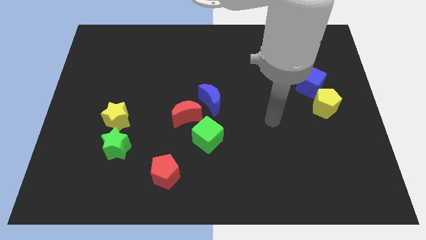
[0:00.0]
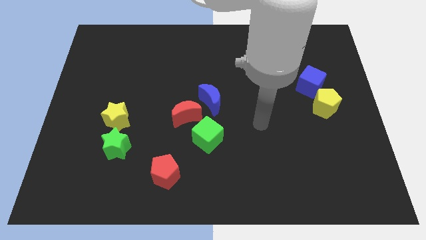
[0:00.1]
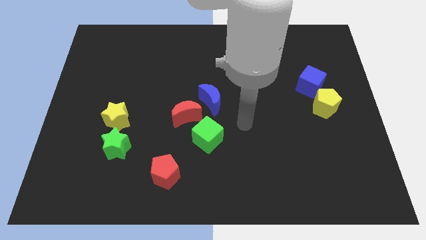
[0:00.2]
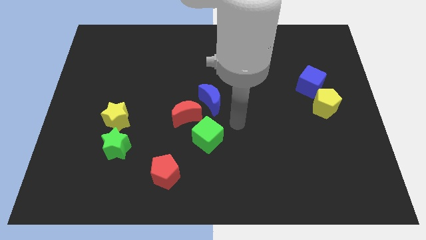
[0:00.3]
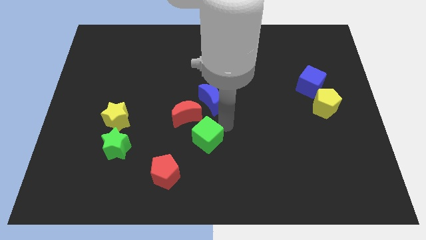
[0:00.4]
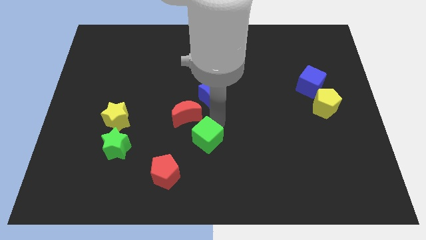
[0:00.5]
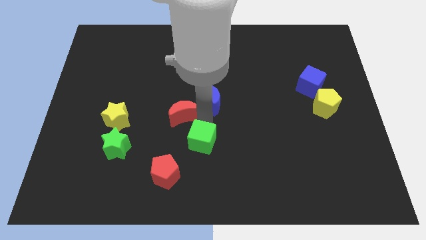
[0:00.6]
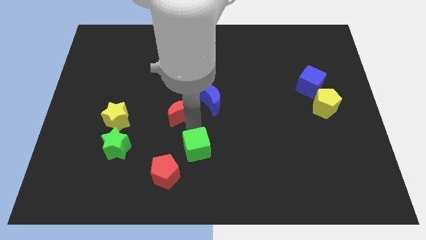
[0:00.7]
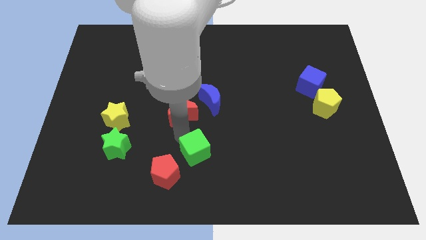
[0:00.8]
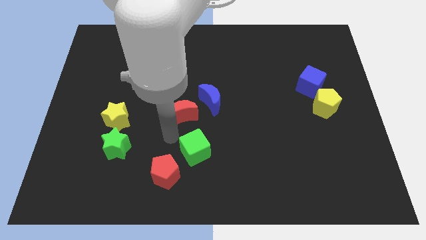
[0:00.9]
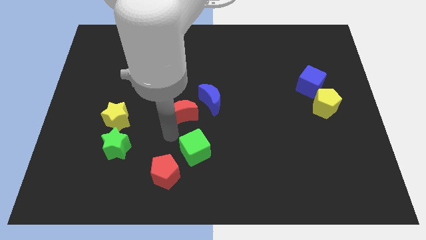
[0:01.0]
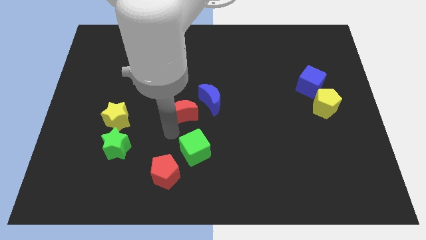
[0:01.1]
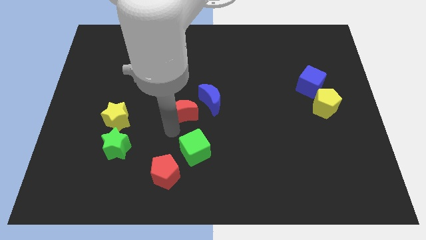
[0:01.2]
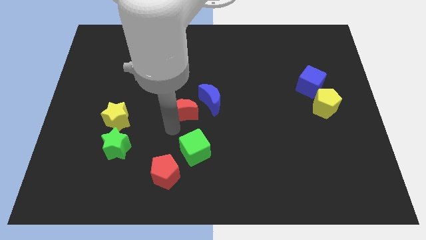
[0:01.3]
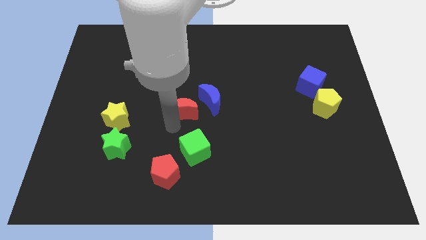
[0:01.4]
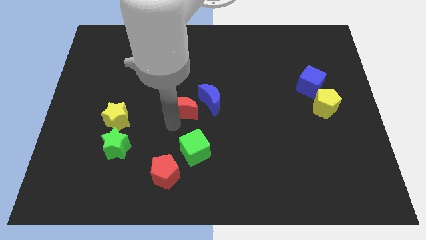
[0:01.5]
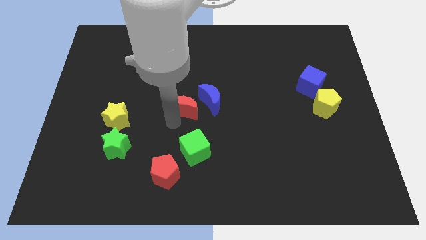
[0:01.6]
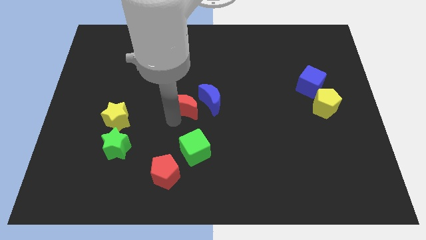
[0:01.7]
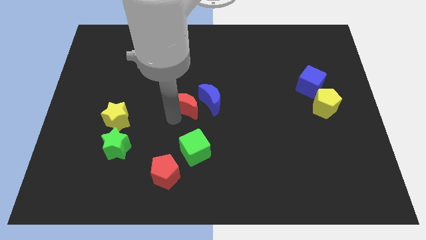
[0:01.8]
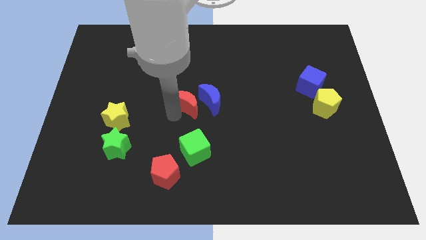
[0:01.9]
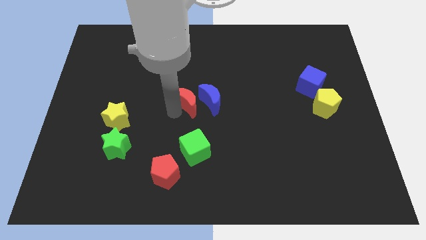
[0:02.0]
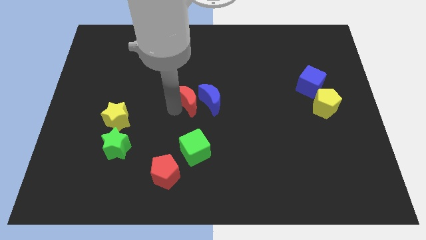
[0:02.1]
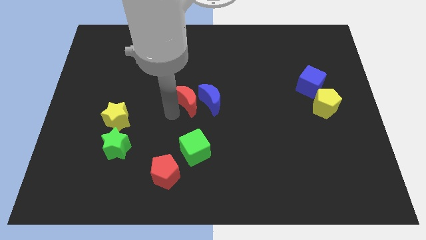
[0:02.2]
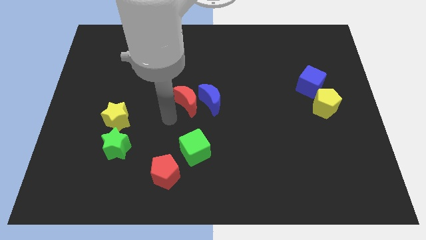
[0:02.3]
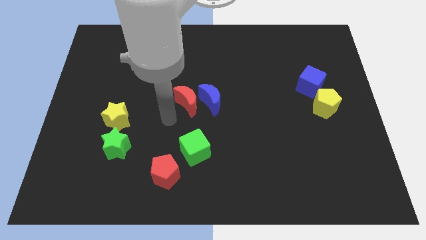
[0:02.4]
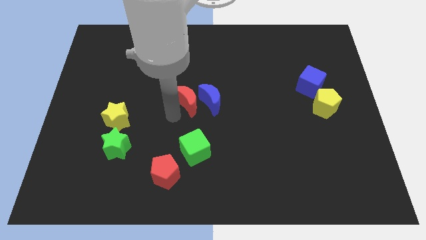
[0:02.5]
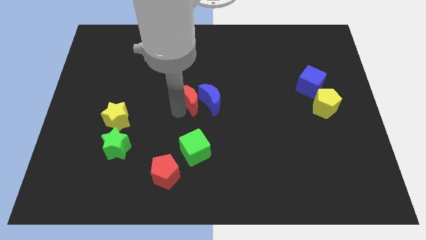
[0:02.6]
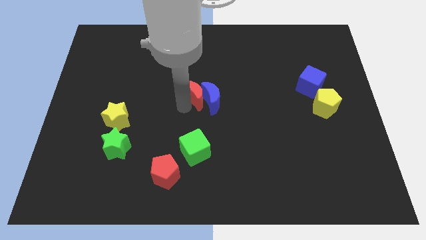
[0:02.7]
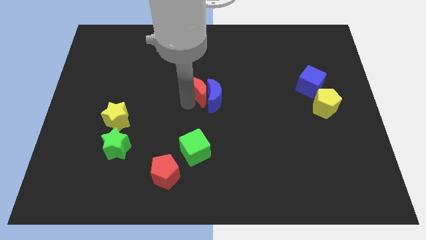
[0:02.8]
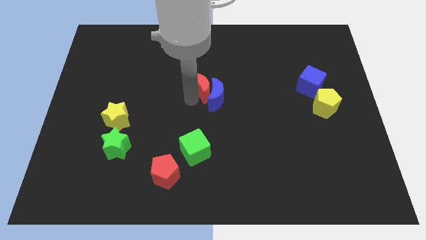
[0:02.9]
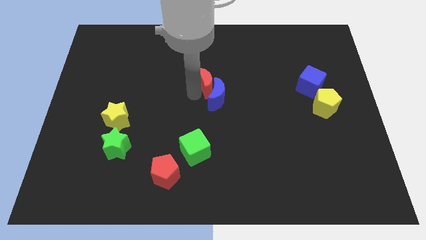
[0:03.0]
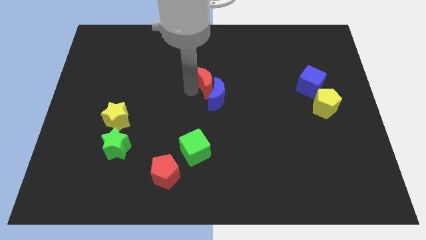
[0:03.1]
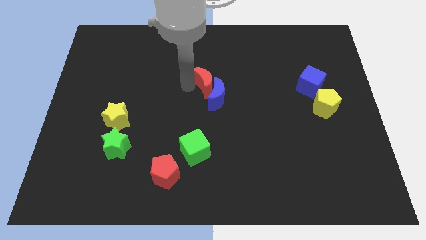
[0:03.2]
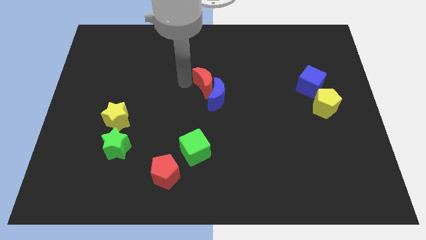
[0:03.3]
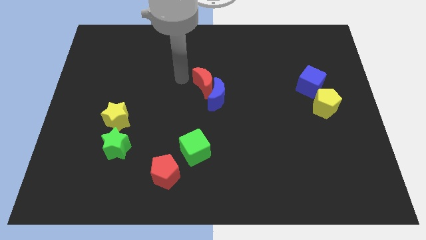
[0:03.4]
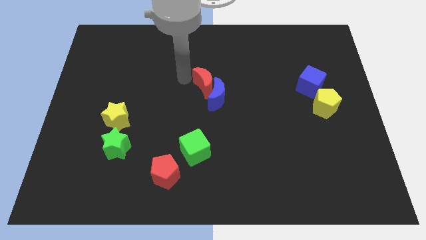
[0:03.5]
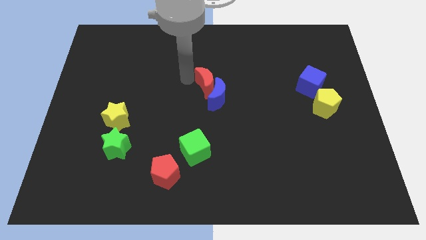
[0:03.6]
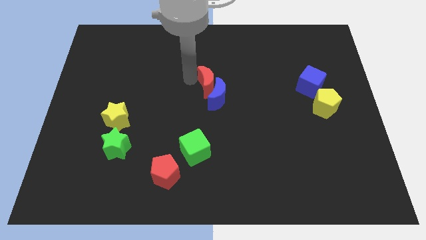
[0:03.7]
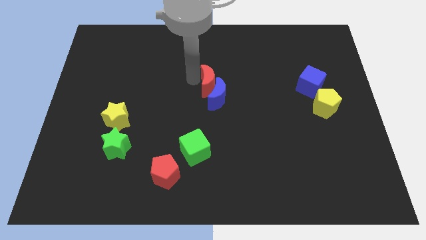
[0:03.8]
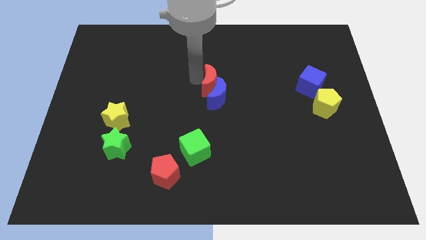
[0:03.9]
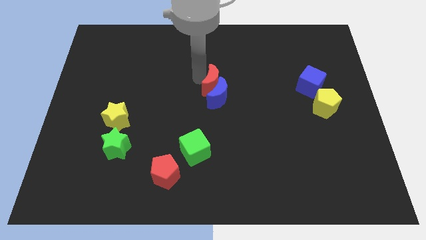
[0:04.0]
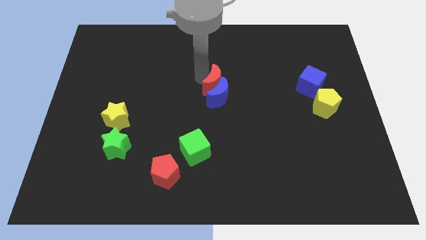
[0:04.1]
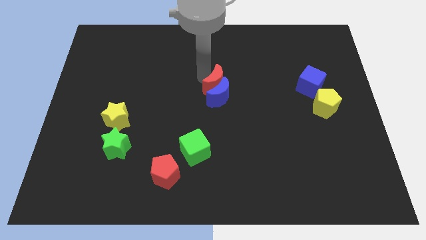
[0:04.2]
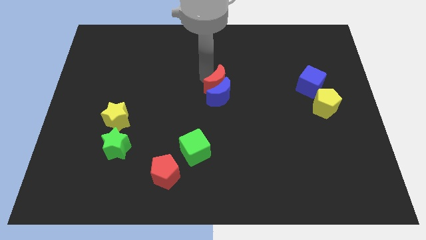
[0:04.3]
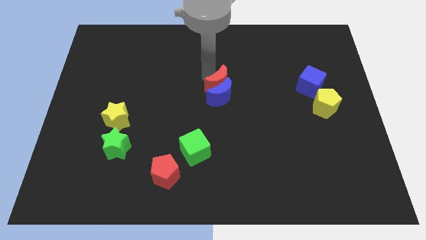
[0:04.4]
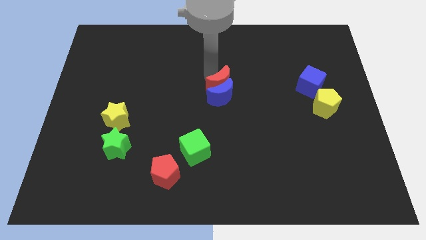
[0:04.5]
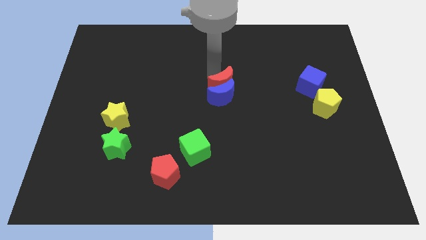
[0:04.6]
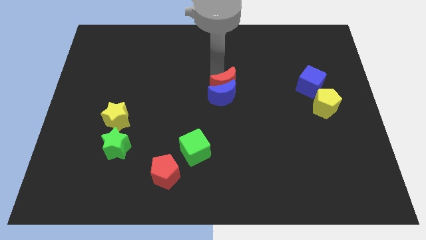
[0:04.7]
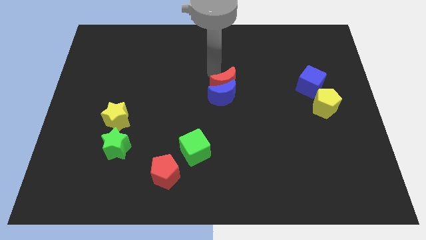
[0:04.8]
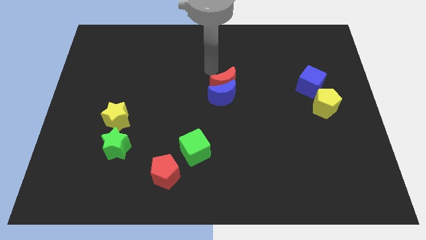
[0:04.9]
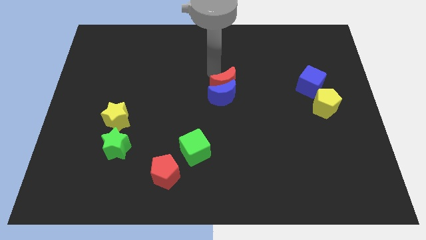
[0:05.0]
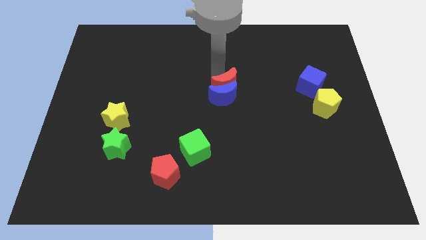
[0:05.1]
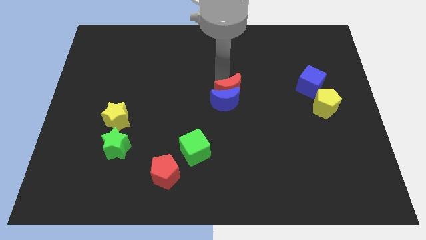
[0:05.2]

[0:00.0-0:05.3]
slightly move the red moon right

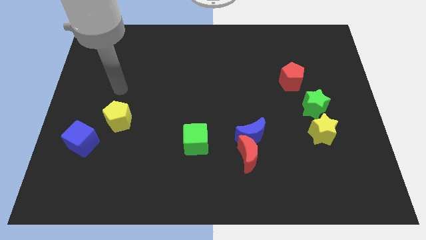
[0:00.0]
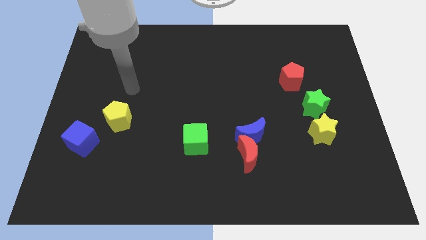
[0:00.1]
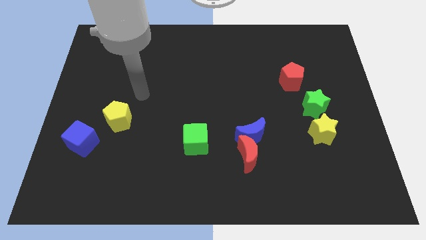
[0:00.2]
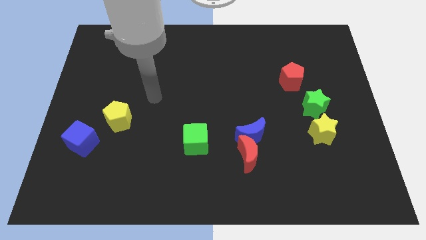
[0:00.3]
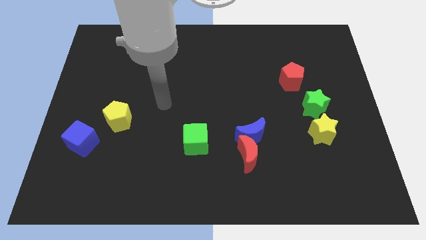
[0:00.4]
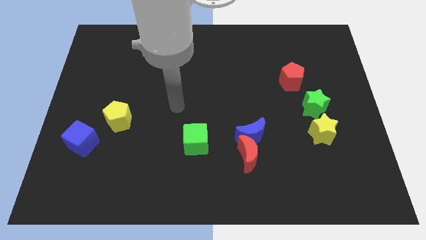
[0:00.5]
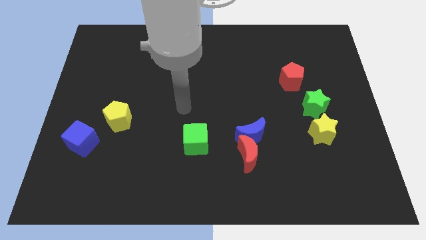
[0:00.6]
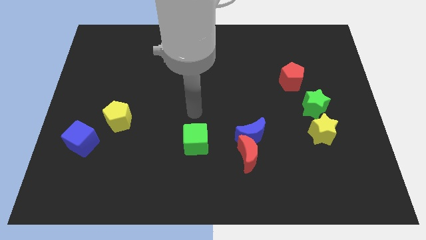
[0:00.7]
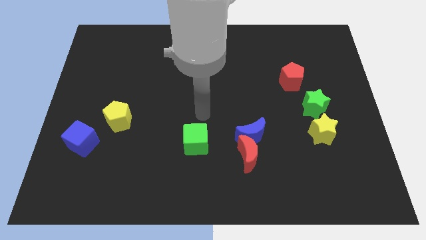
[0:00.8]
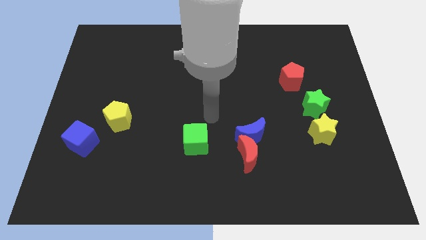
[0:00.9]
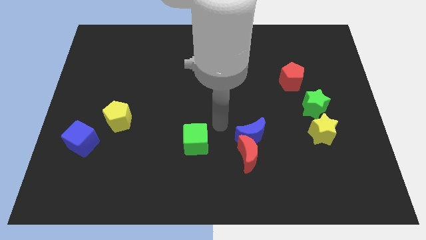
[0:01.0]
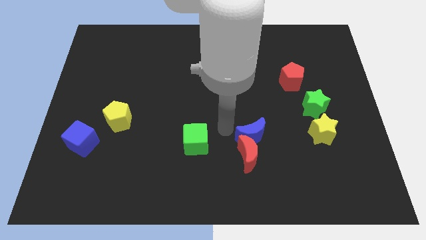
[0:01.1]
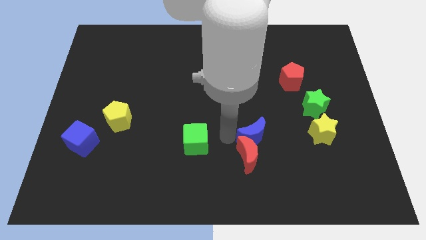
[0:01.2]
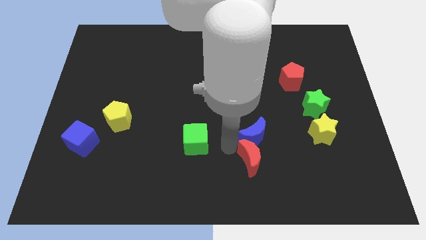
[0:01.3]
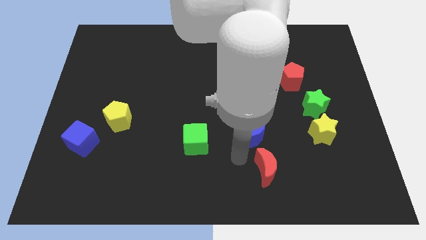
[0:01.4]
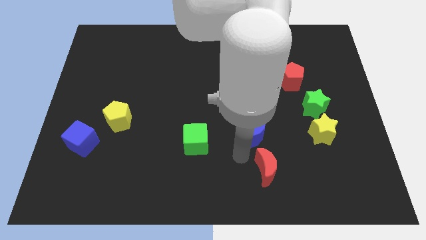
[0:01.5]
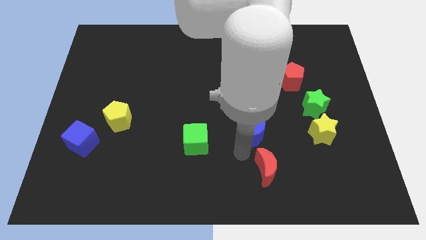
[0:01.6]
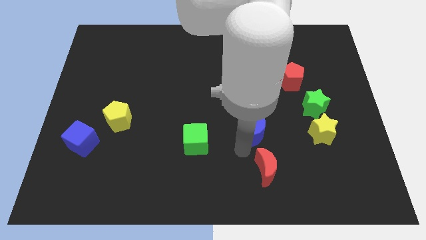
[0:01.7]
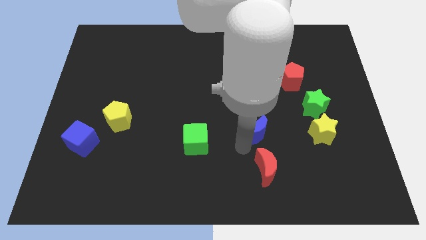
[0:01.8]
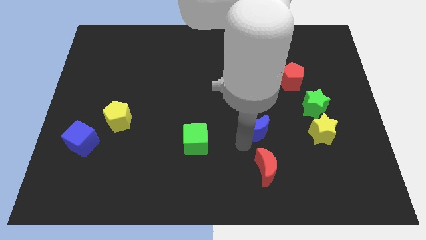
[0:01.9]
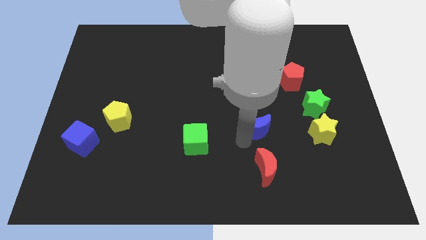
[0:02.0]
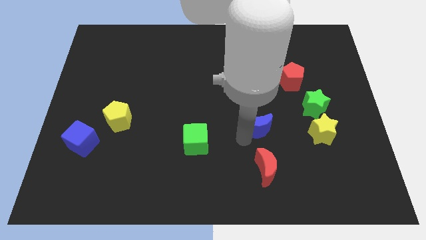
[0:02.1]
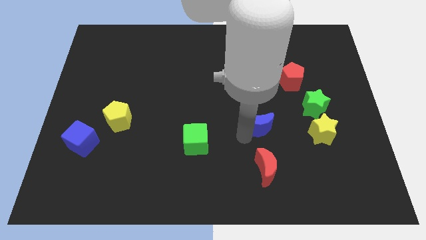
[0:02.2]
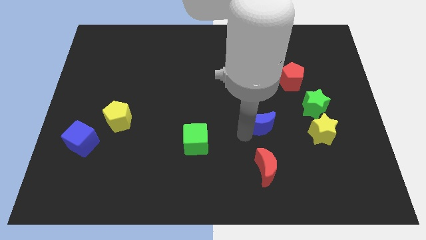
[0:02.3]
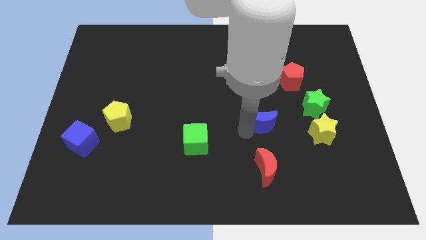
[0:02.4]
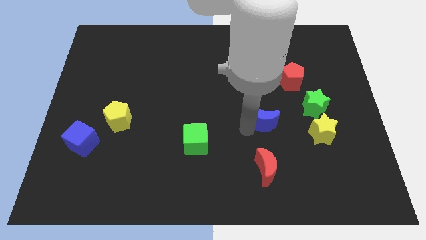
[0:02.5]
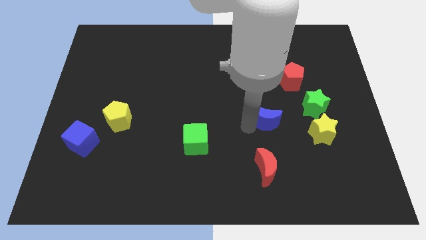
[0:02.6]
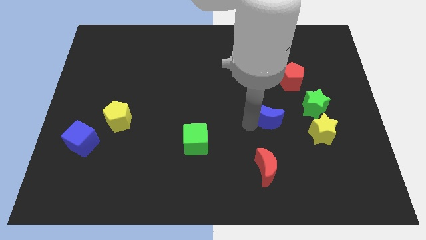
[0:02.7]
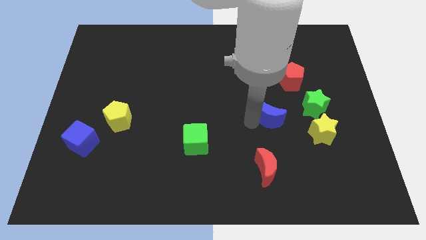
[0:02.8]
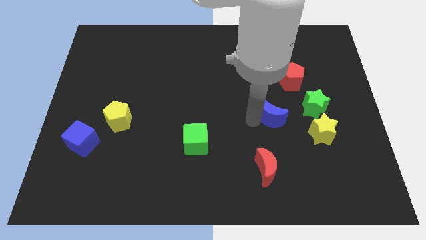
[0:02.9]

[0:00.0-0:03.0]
slightly move the blue moon up and to the right
